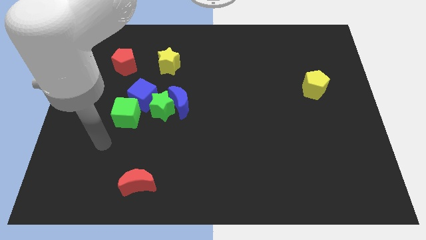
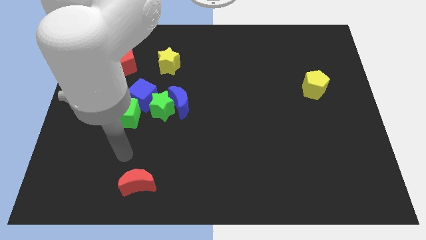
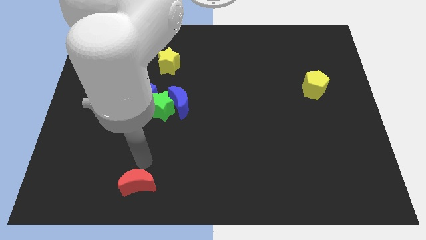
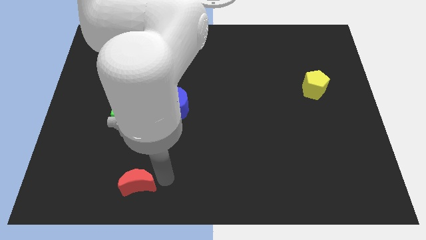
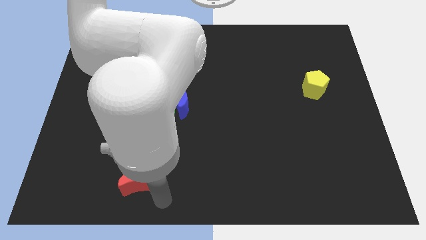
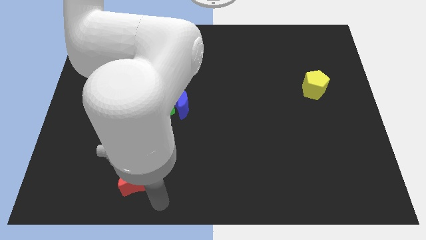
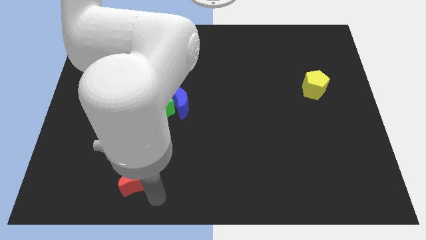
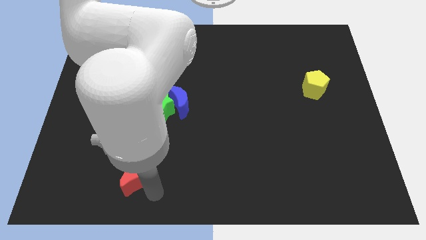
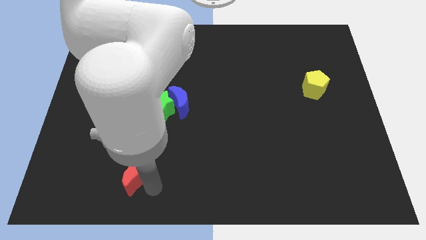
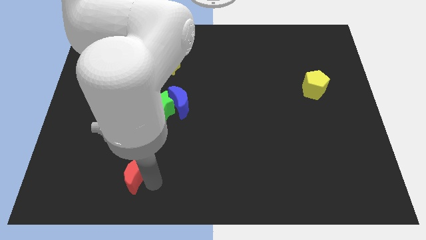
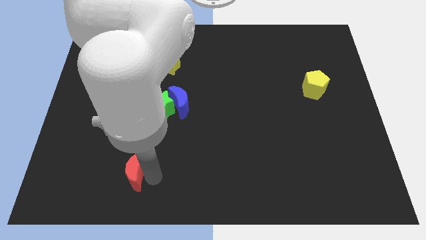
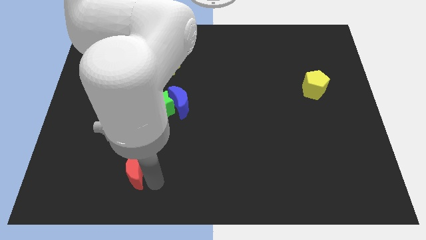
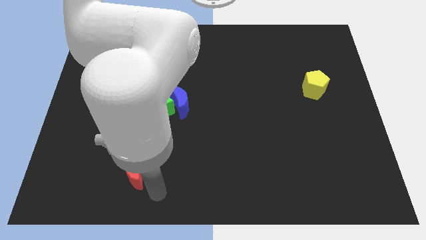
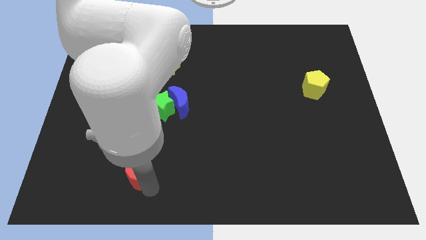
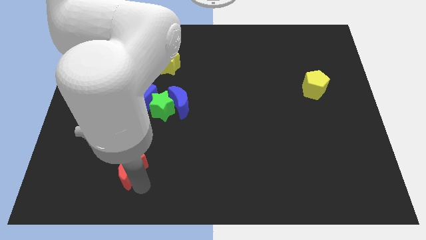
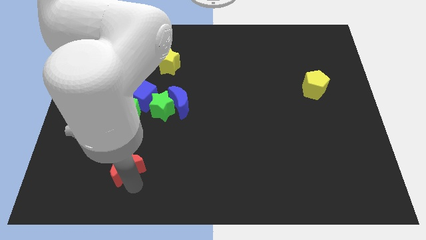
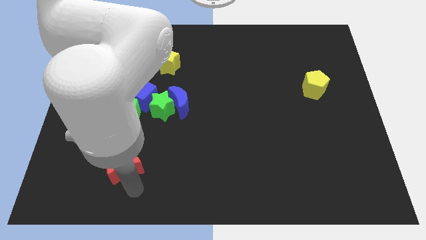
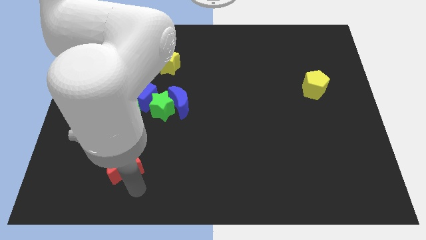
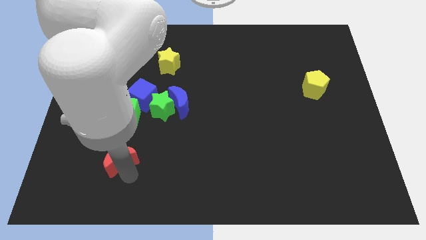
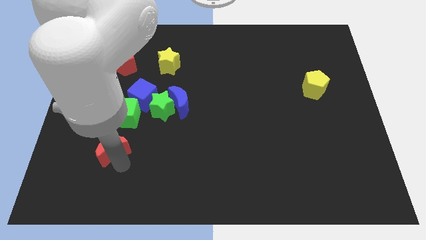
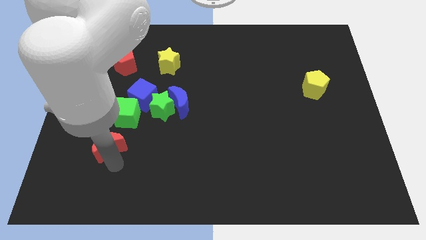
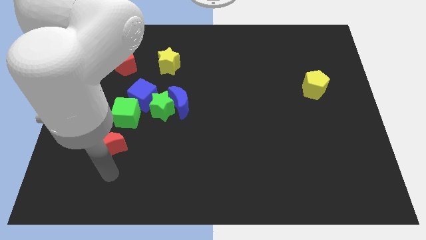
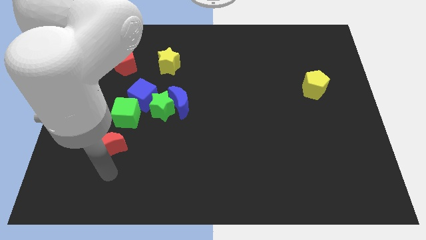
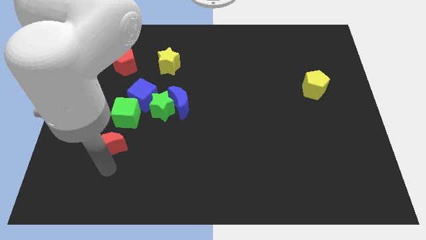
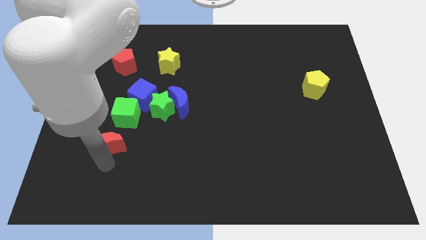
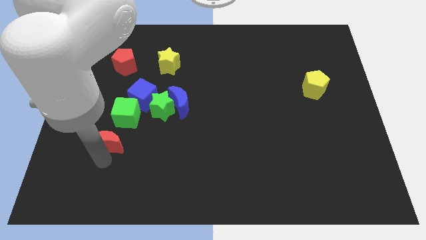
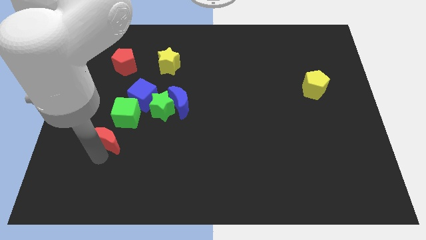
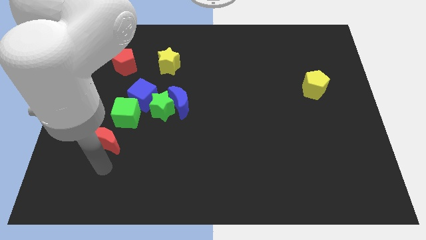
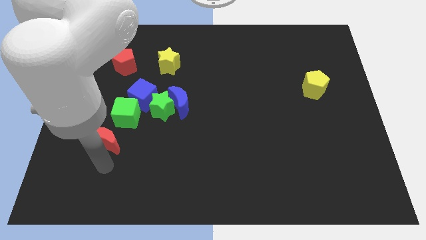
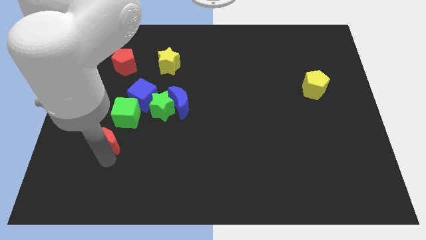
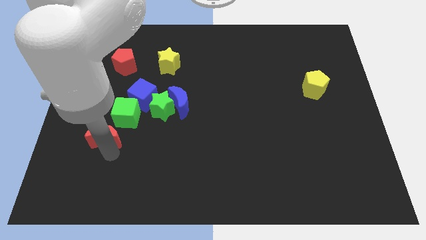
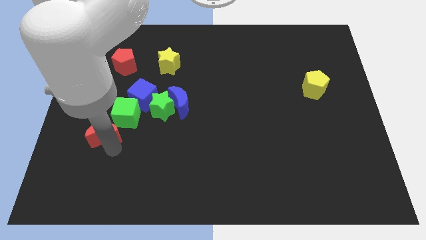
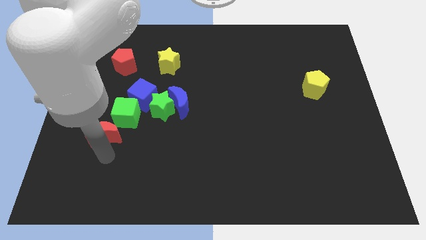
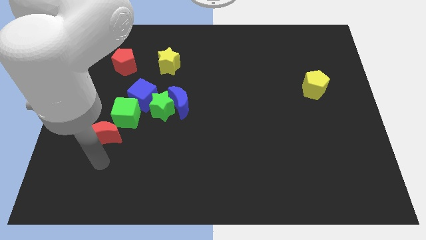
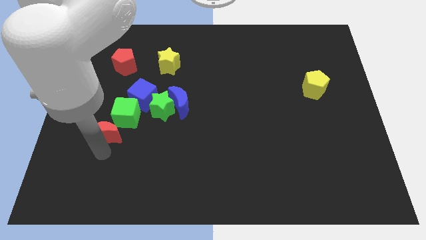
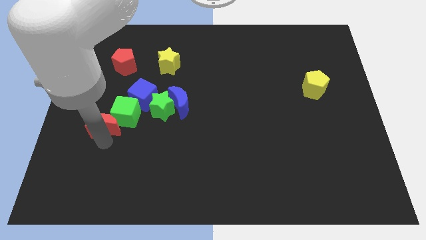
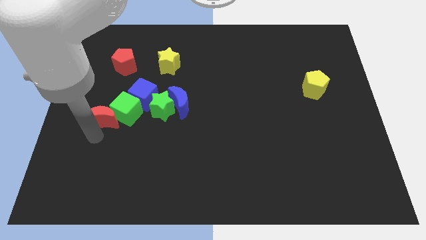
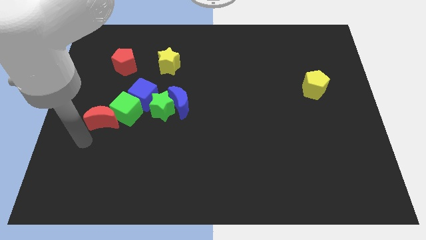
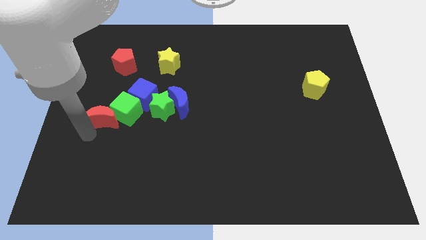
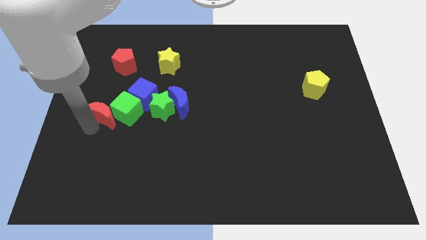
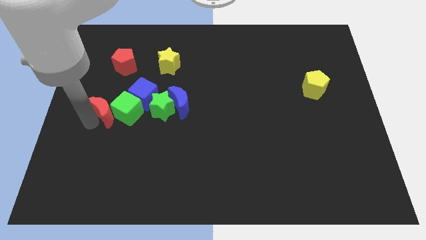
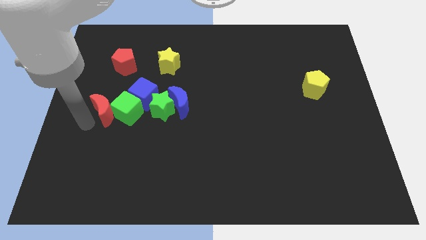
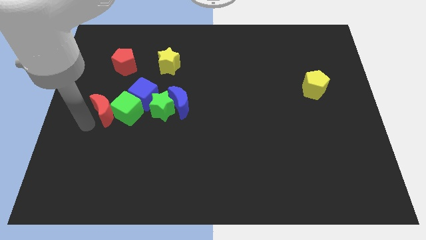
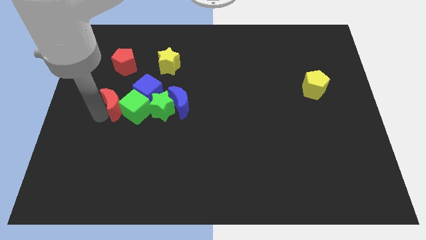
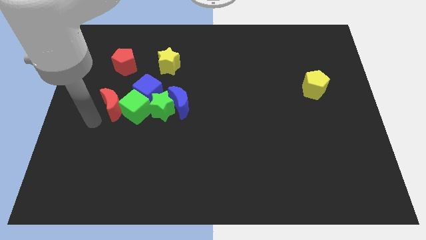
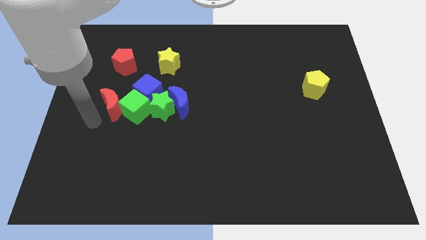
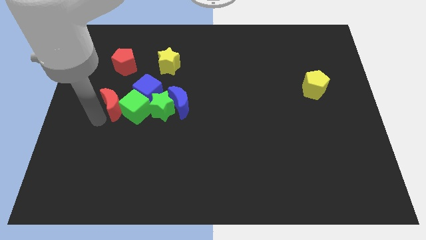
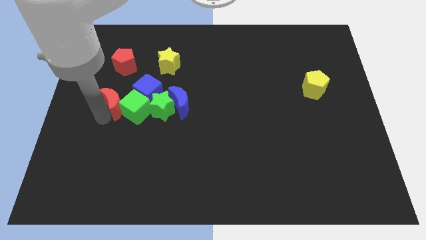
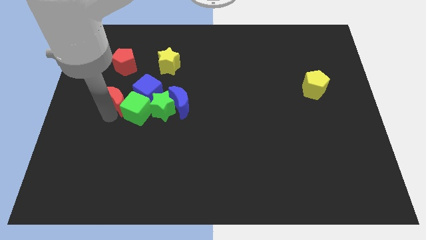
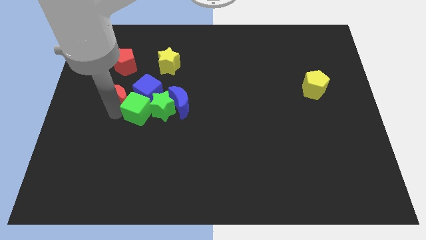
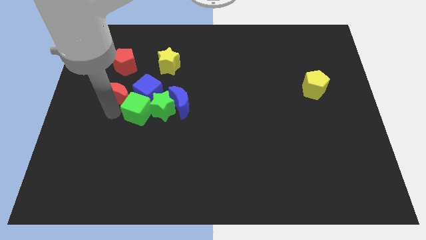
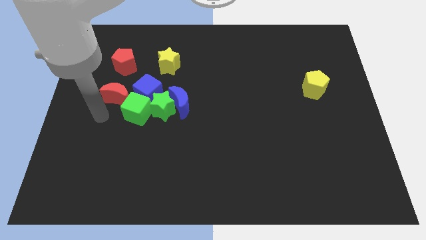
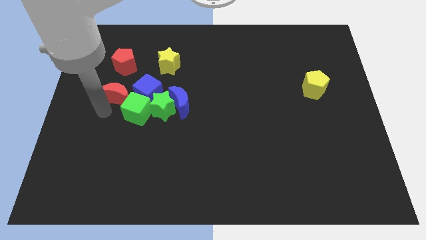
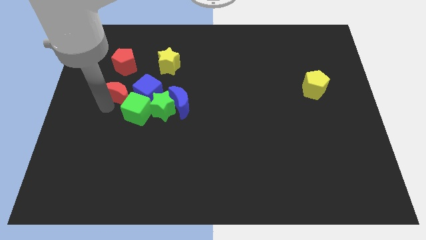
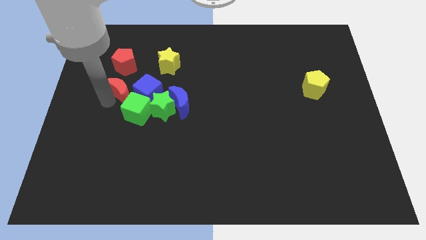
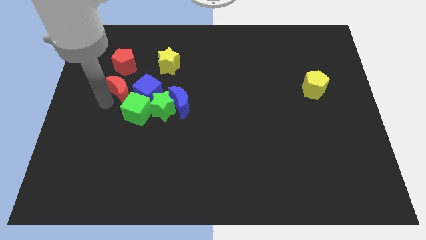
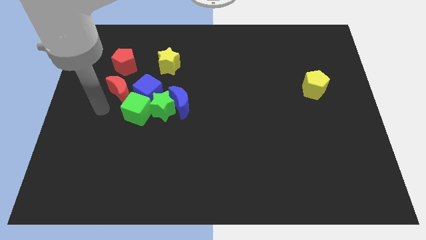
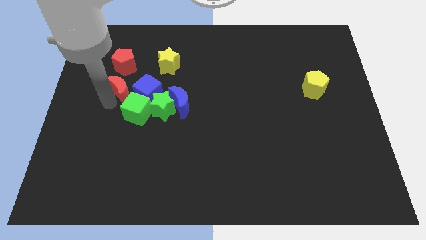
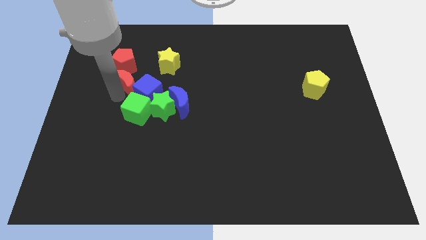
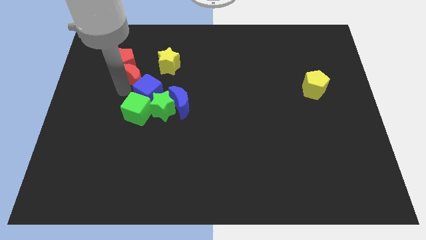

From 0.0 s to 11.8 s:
put the red moon to the top of the blue cube
